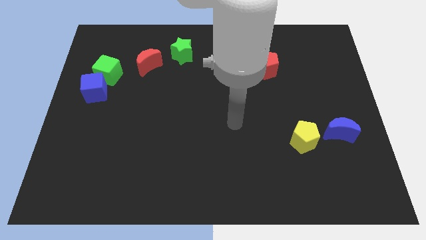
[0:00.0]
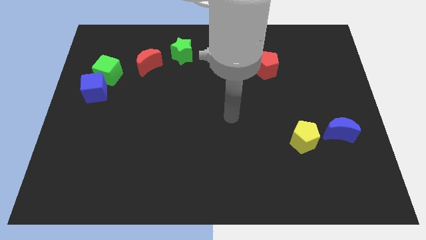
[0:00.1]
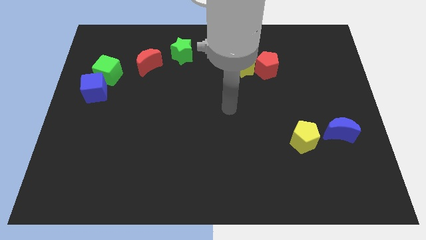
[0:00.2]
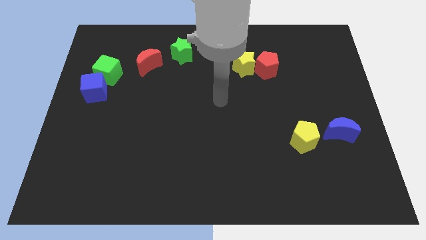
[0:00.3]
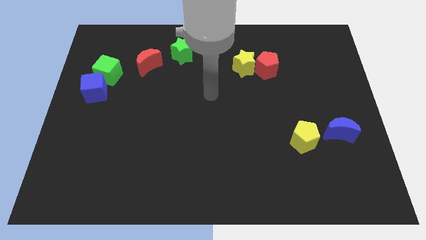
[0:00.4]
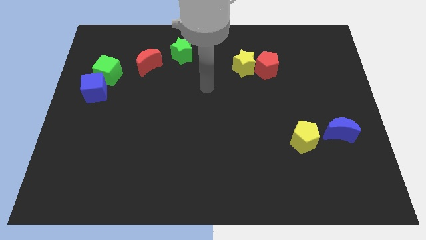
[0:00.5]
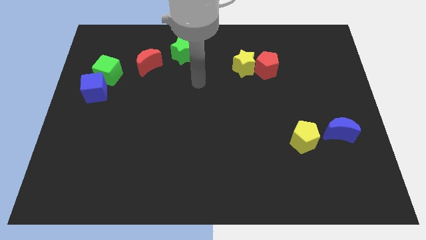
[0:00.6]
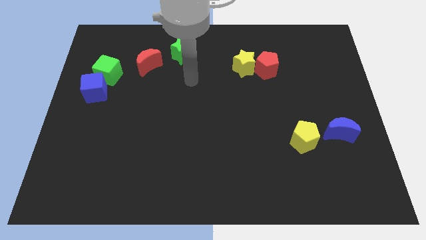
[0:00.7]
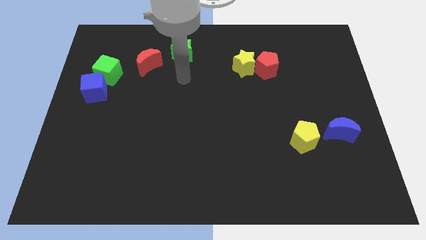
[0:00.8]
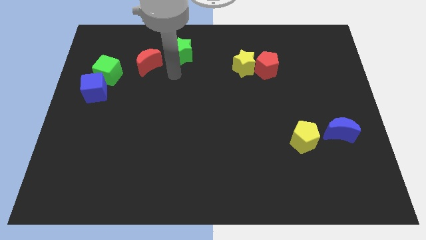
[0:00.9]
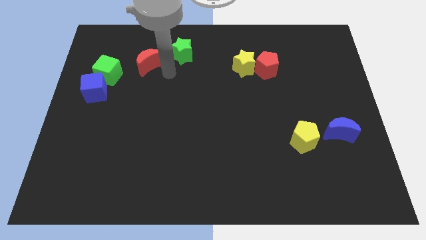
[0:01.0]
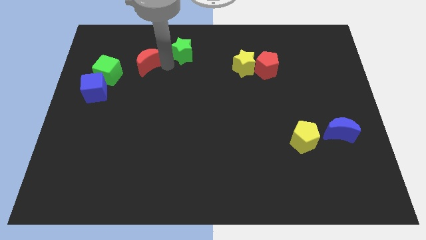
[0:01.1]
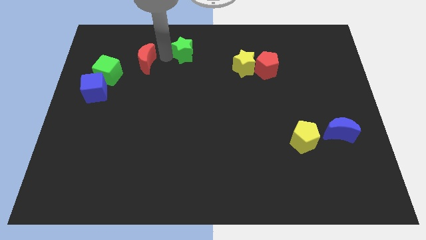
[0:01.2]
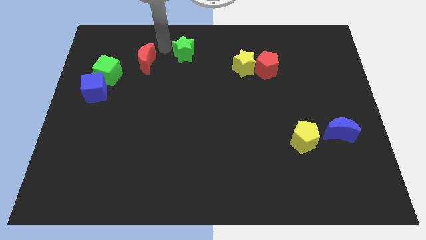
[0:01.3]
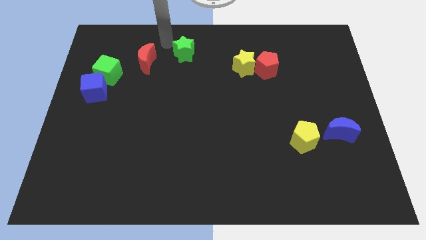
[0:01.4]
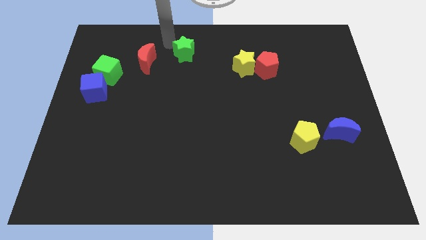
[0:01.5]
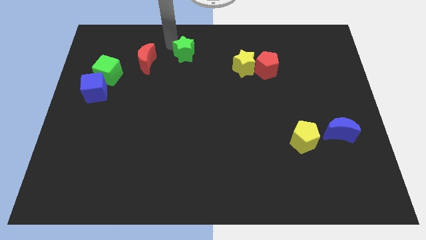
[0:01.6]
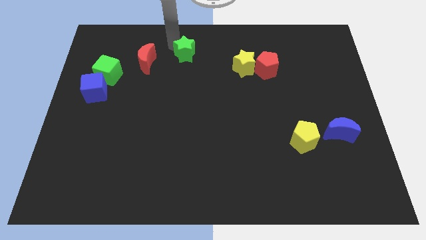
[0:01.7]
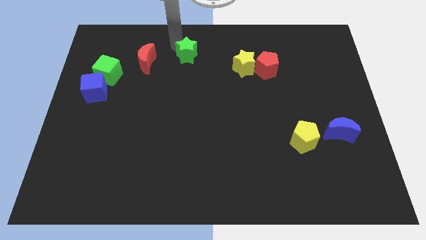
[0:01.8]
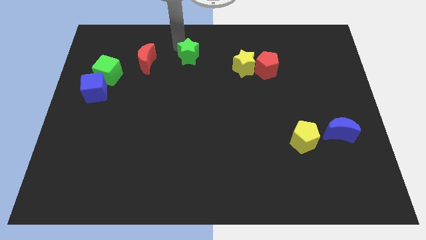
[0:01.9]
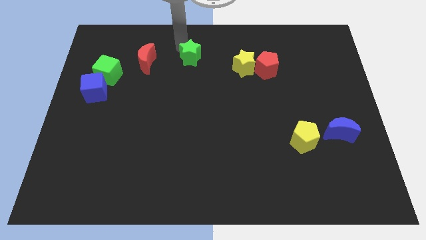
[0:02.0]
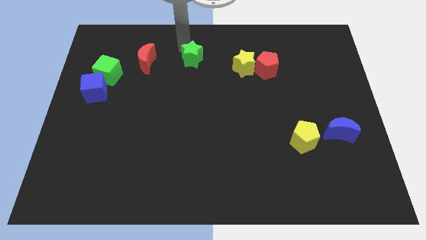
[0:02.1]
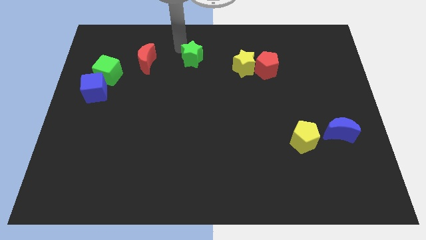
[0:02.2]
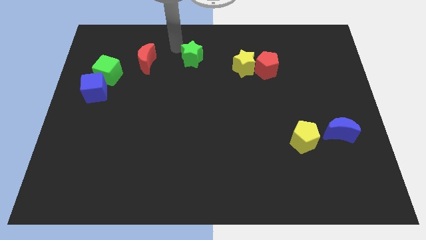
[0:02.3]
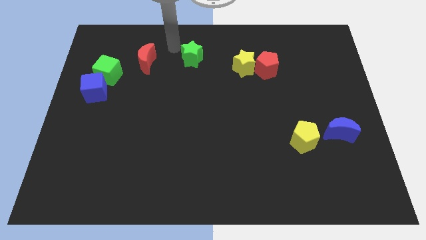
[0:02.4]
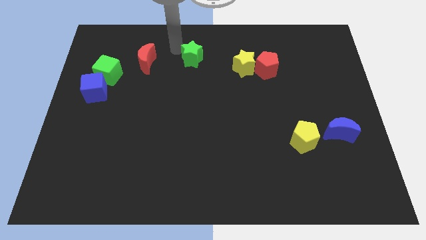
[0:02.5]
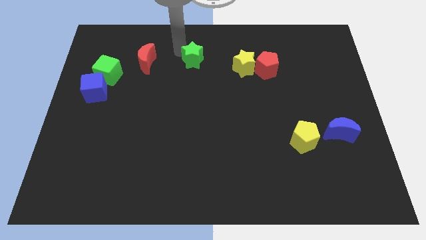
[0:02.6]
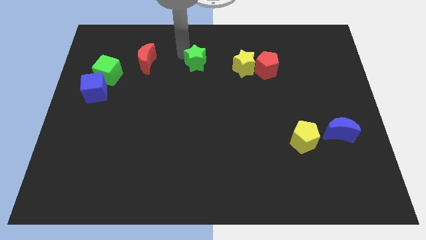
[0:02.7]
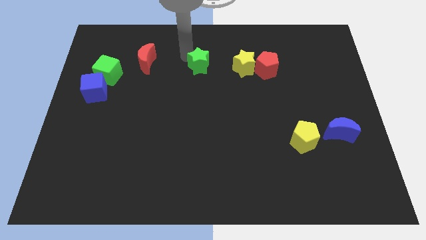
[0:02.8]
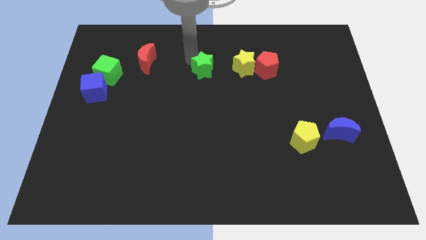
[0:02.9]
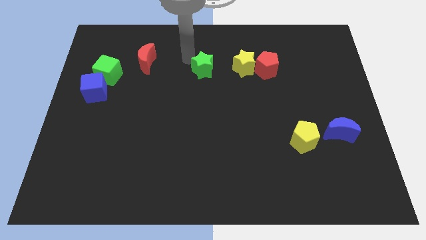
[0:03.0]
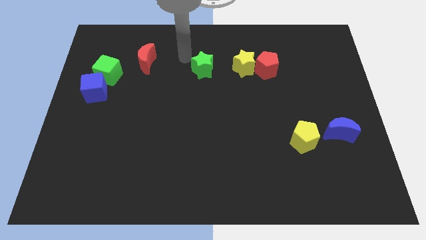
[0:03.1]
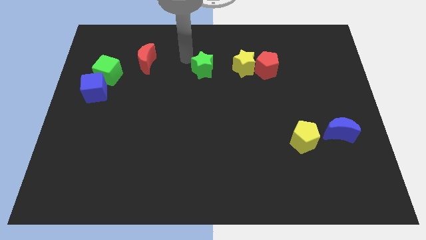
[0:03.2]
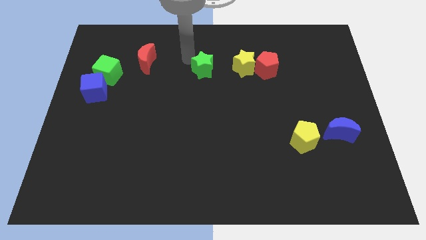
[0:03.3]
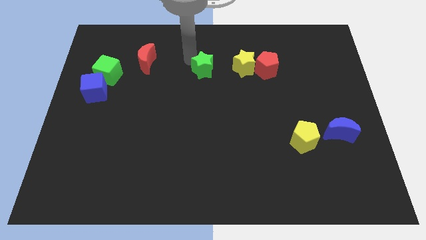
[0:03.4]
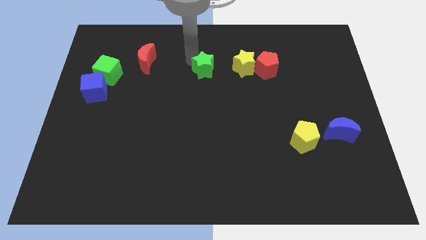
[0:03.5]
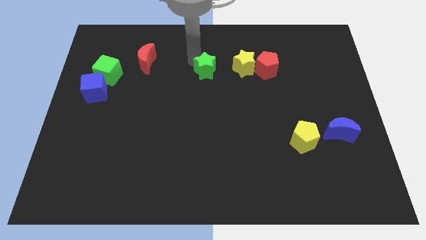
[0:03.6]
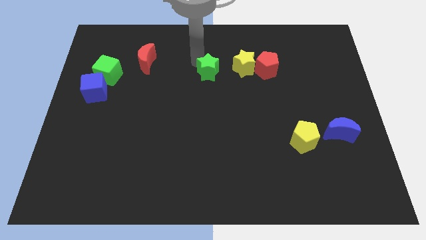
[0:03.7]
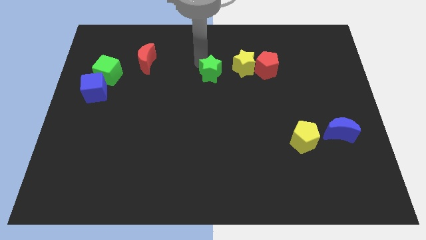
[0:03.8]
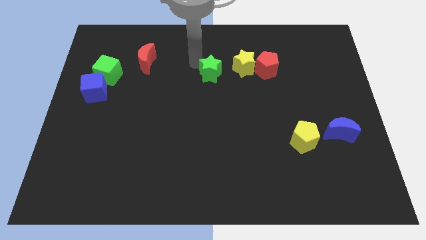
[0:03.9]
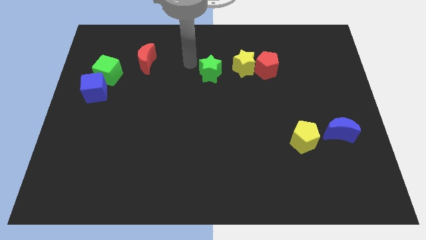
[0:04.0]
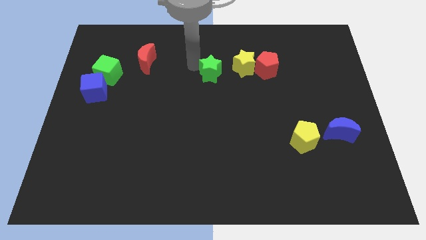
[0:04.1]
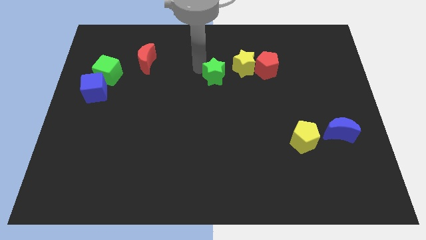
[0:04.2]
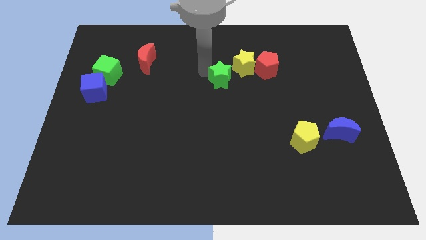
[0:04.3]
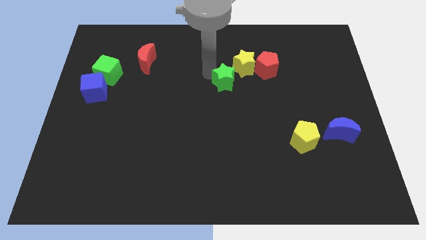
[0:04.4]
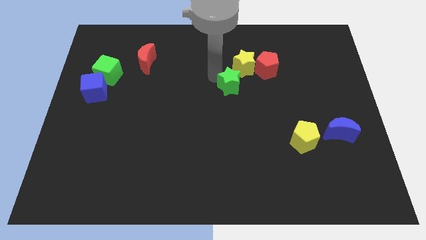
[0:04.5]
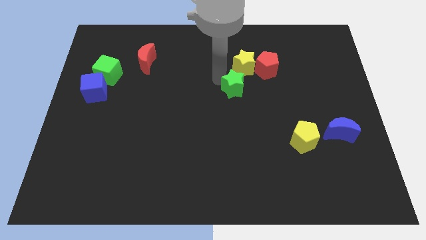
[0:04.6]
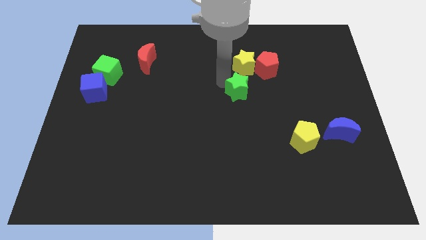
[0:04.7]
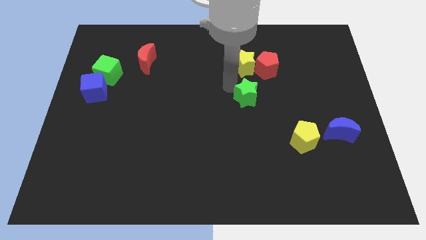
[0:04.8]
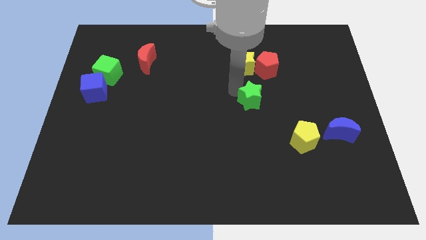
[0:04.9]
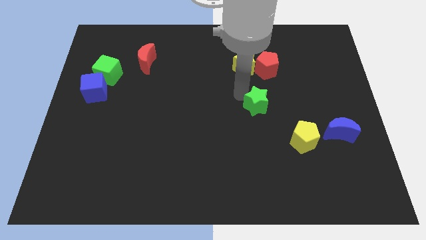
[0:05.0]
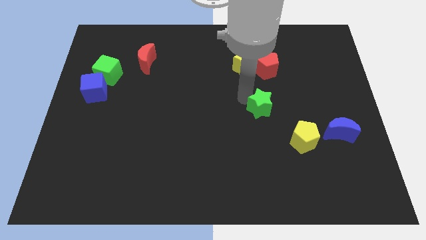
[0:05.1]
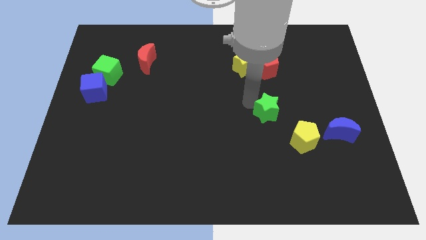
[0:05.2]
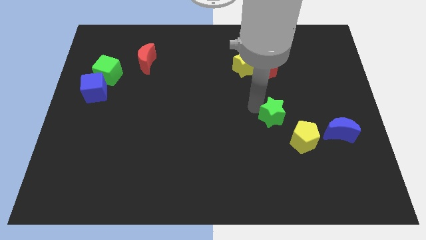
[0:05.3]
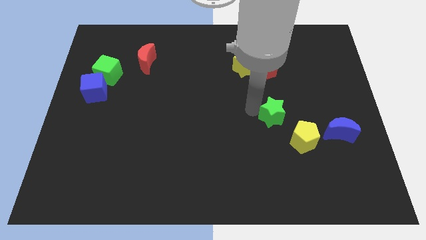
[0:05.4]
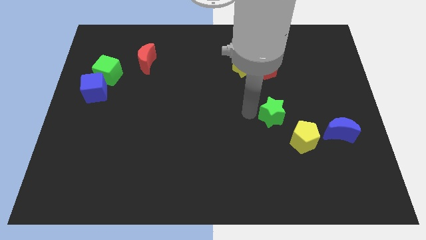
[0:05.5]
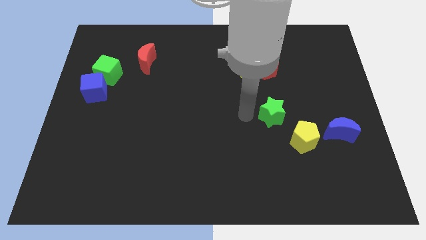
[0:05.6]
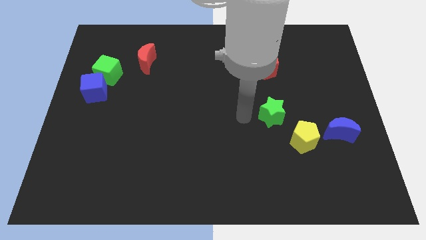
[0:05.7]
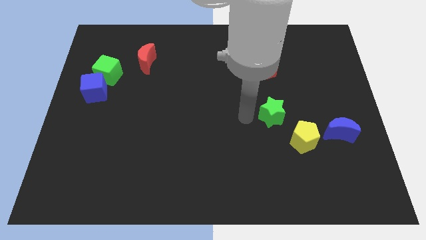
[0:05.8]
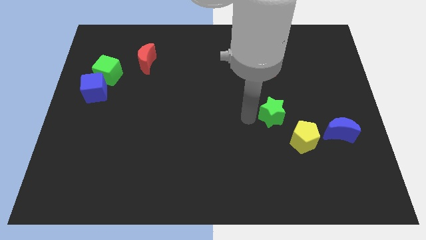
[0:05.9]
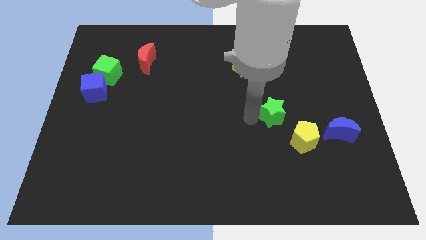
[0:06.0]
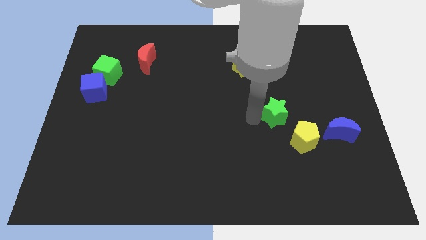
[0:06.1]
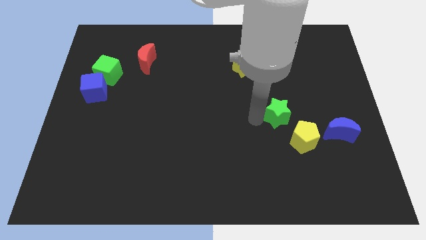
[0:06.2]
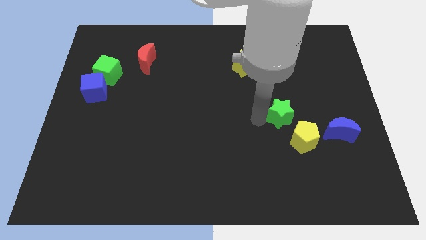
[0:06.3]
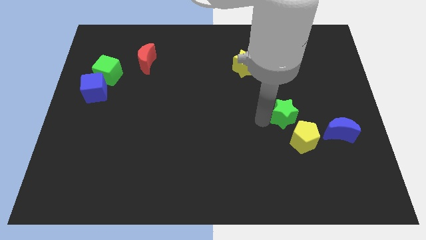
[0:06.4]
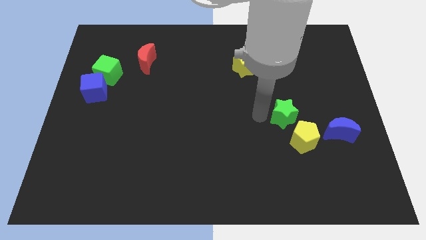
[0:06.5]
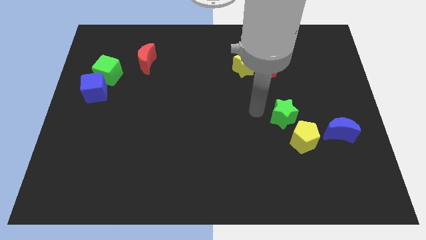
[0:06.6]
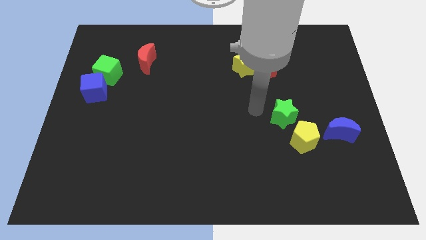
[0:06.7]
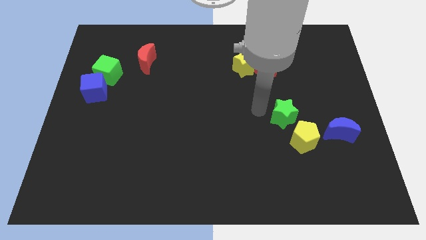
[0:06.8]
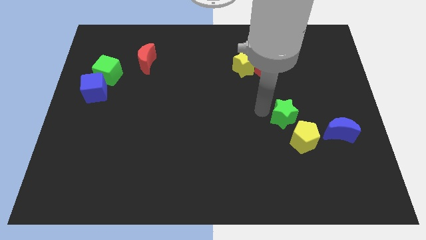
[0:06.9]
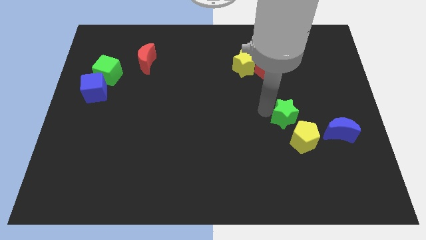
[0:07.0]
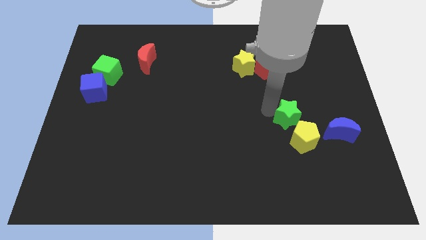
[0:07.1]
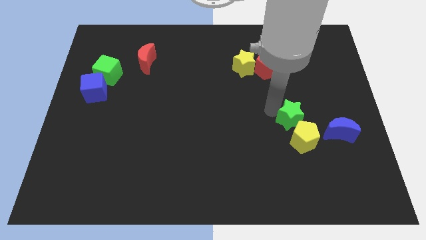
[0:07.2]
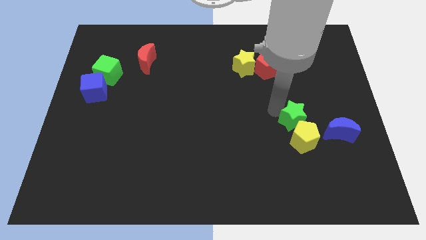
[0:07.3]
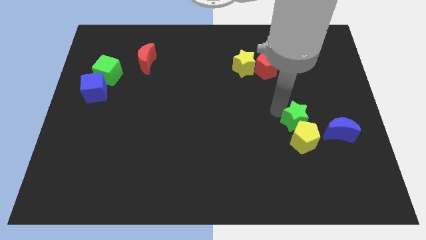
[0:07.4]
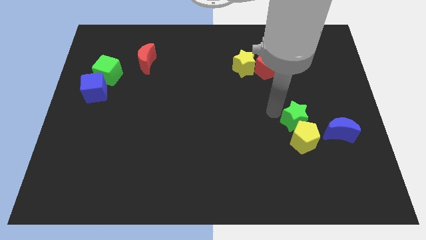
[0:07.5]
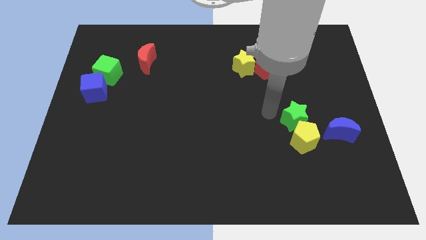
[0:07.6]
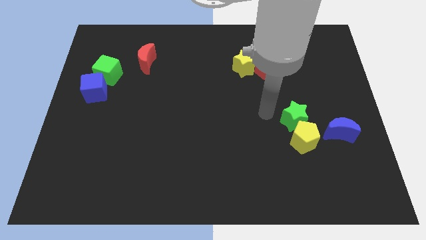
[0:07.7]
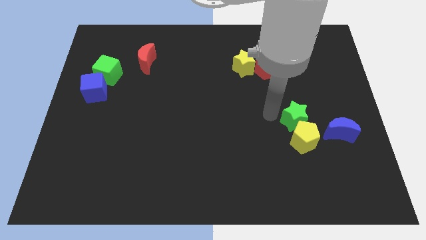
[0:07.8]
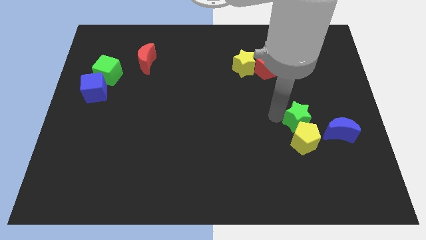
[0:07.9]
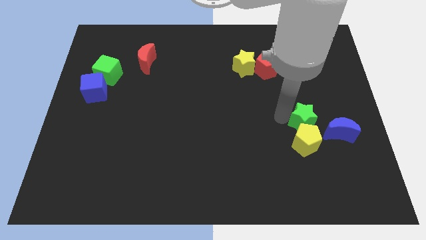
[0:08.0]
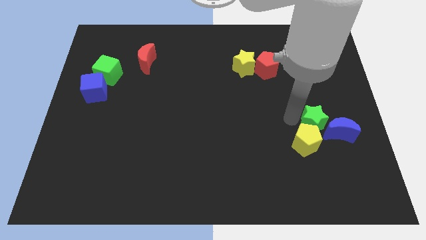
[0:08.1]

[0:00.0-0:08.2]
move the green star towards the blue moon
